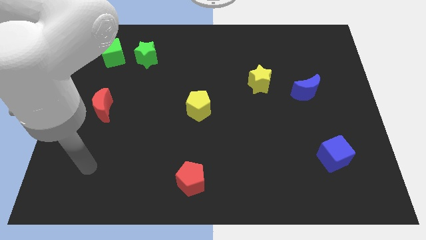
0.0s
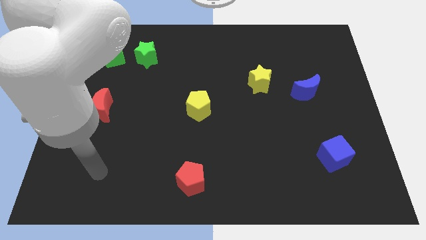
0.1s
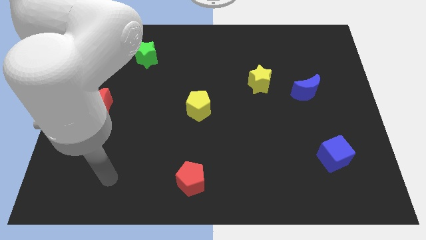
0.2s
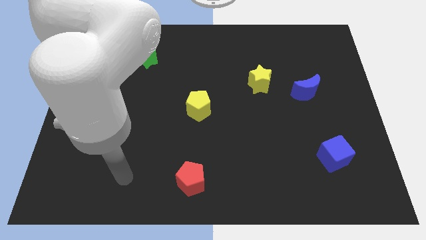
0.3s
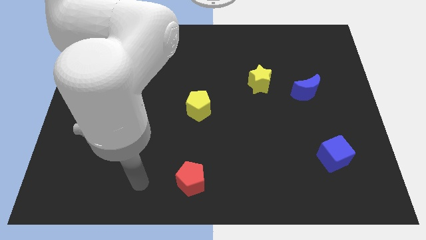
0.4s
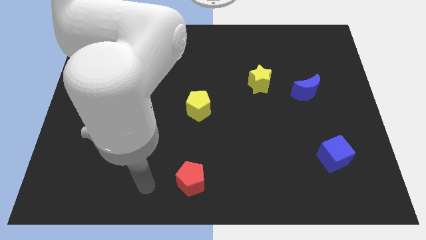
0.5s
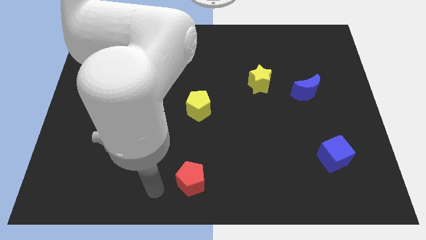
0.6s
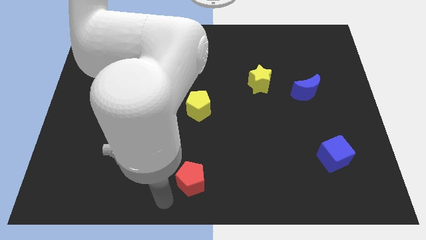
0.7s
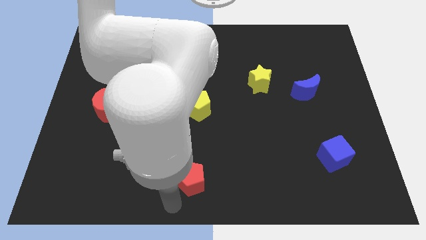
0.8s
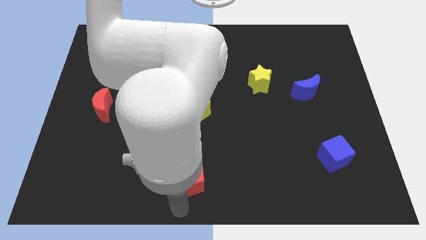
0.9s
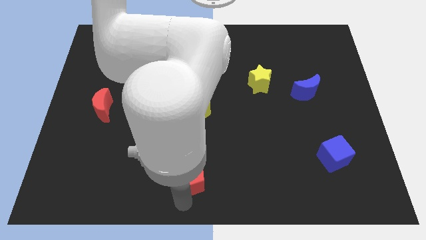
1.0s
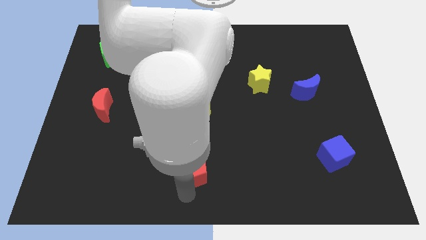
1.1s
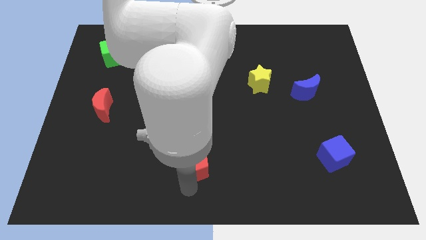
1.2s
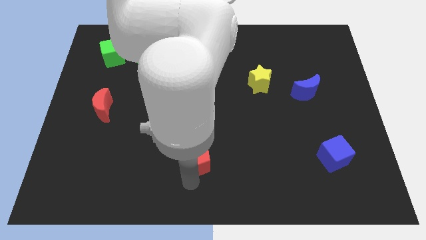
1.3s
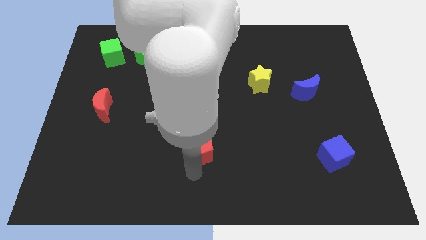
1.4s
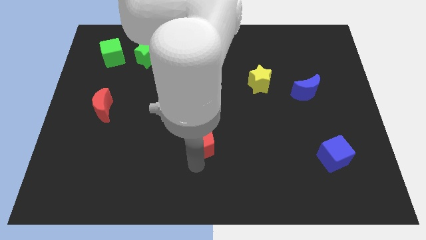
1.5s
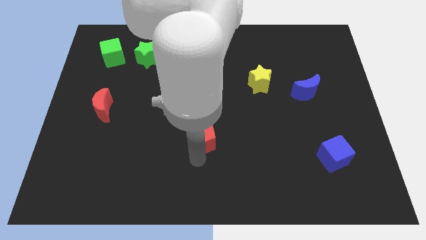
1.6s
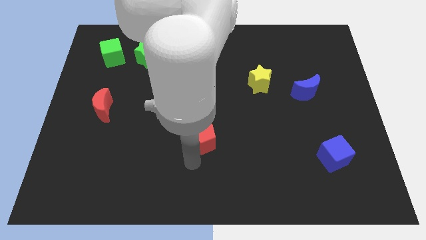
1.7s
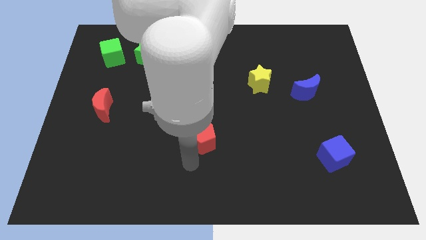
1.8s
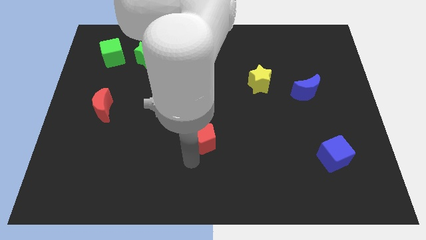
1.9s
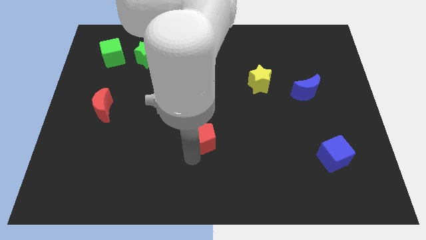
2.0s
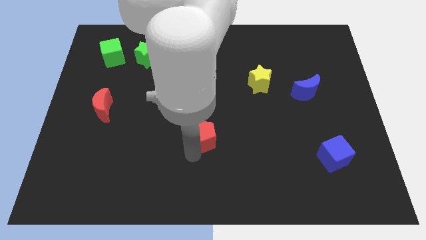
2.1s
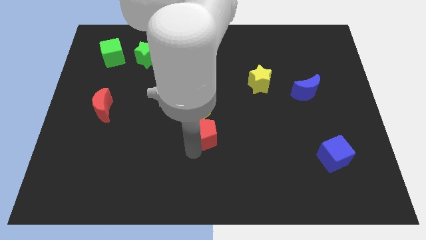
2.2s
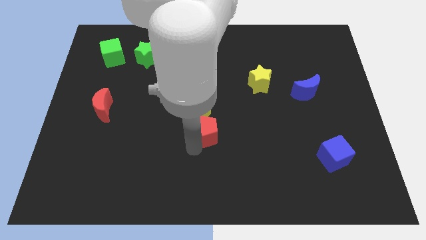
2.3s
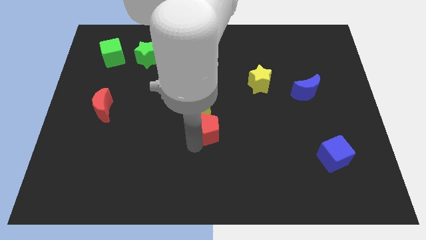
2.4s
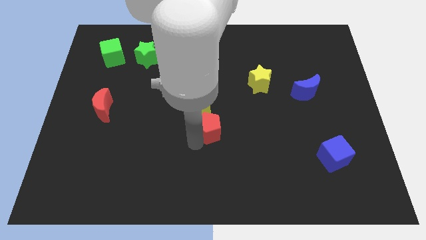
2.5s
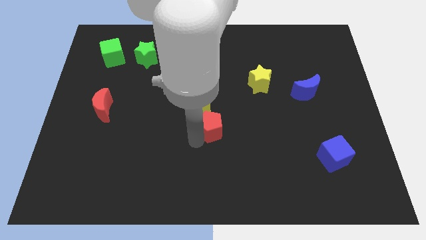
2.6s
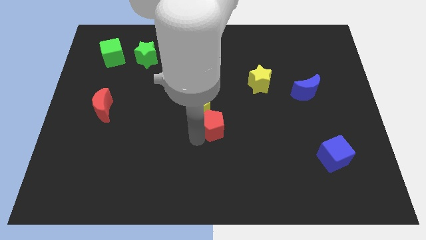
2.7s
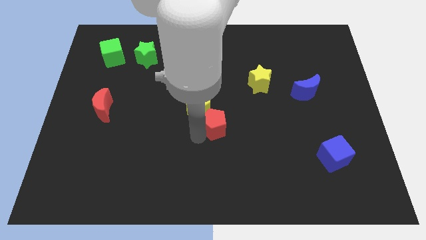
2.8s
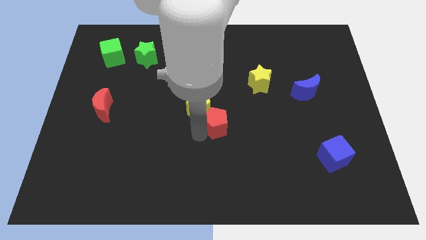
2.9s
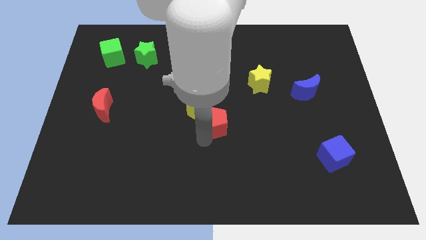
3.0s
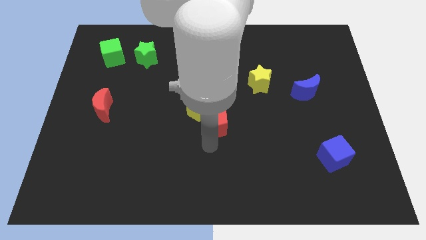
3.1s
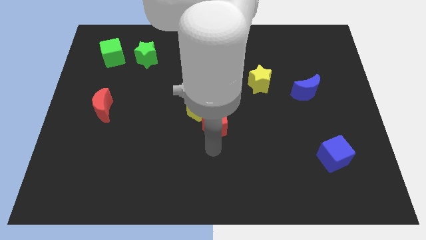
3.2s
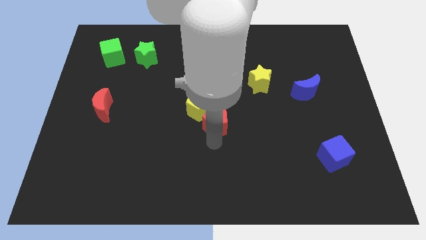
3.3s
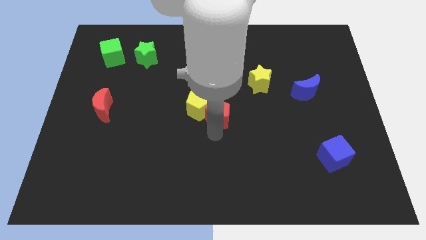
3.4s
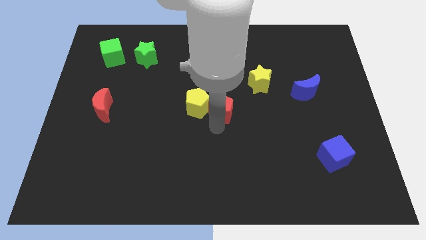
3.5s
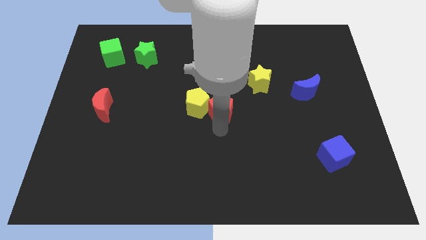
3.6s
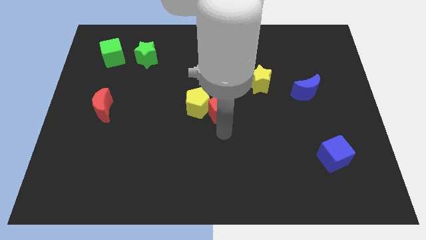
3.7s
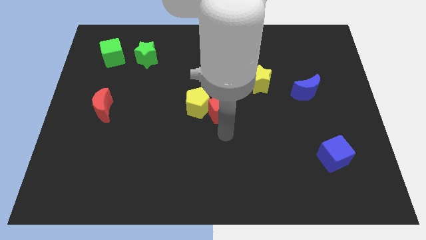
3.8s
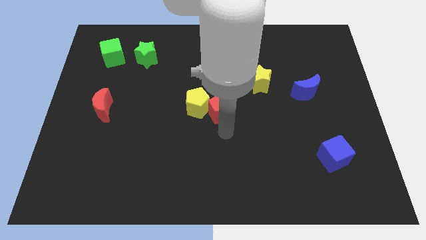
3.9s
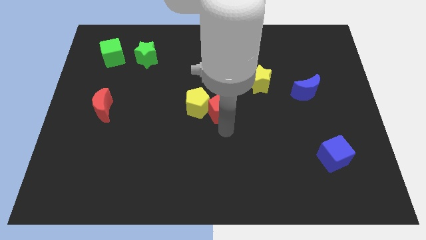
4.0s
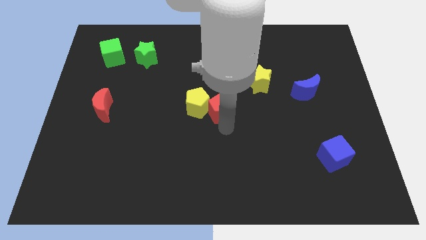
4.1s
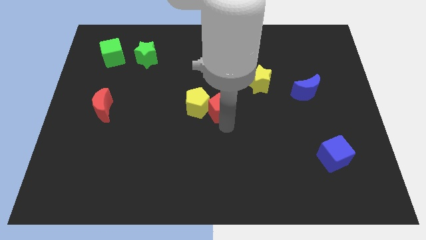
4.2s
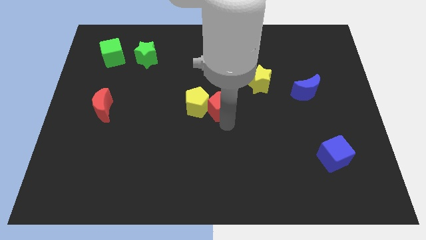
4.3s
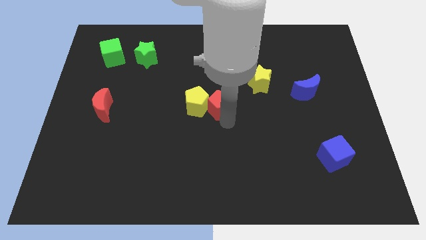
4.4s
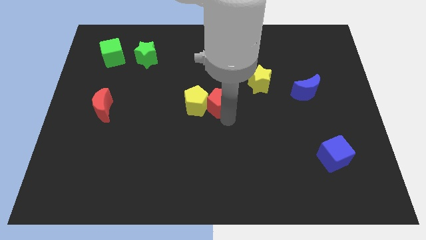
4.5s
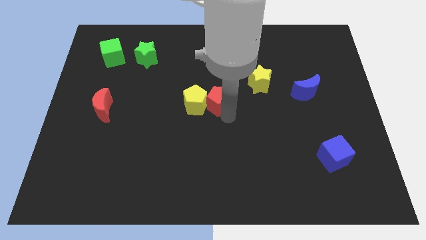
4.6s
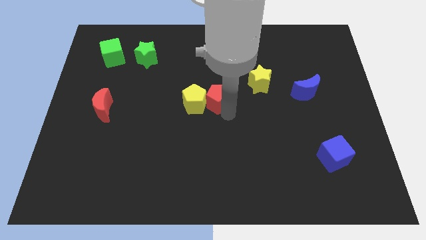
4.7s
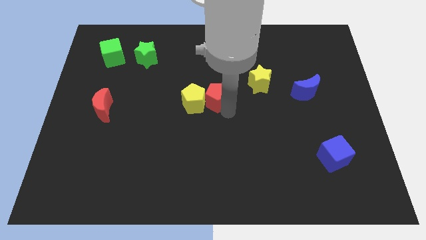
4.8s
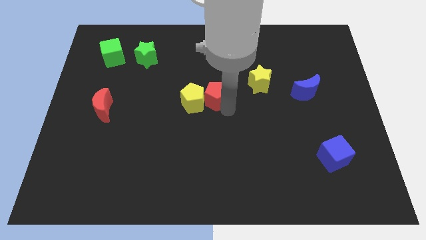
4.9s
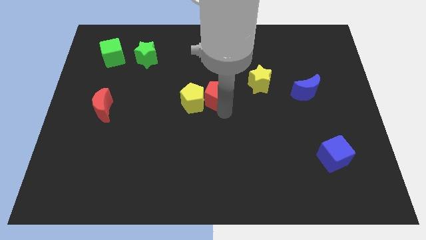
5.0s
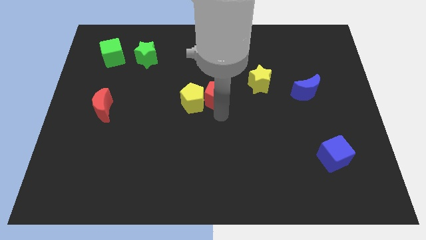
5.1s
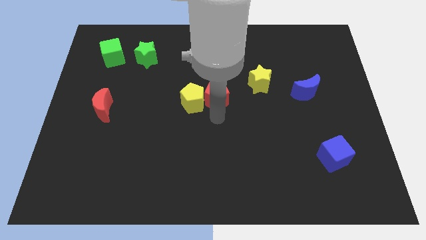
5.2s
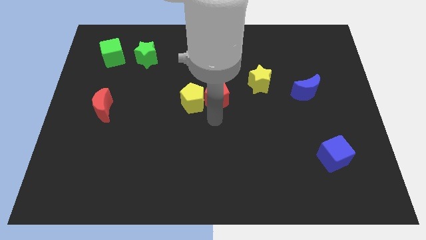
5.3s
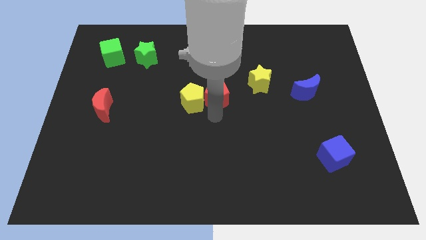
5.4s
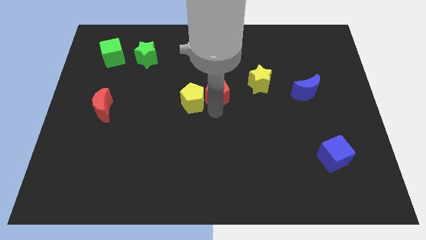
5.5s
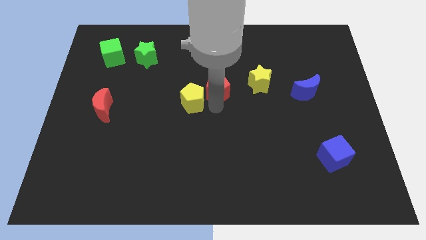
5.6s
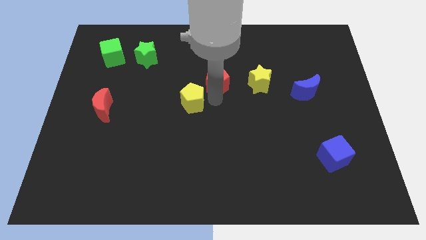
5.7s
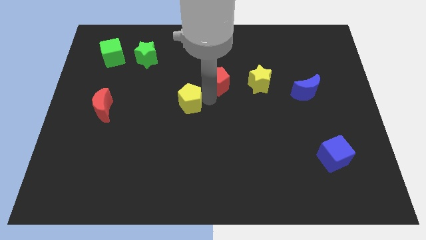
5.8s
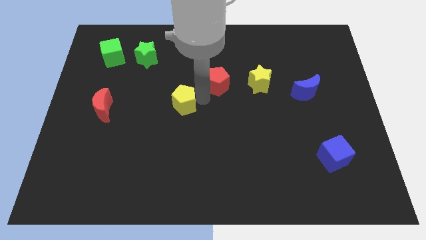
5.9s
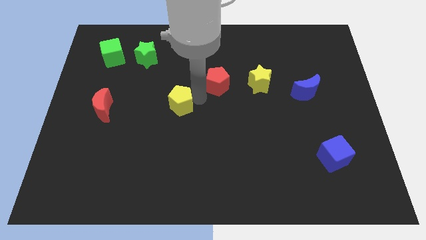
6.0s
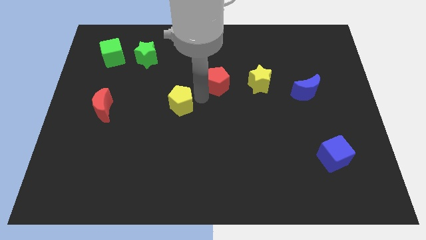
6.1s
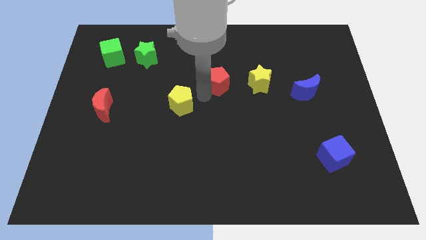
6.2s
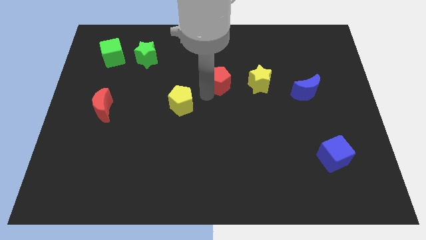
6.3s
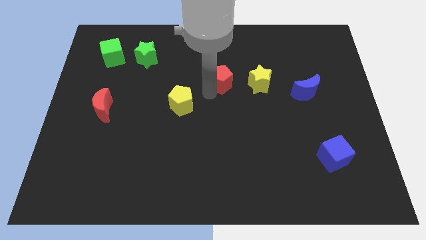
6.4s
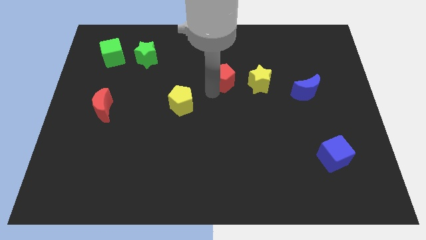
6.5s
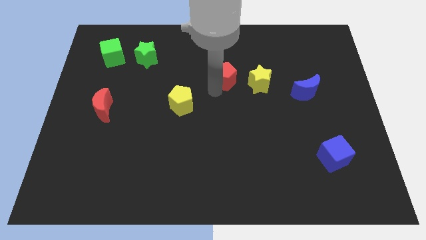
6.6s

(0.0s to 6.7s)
push the red pentagon diagonally up and to the left of the yellow star

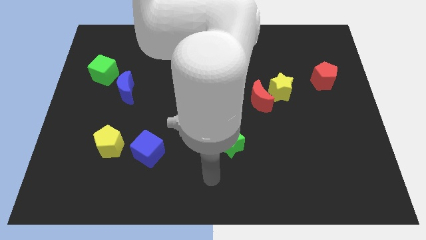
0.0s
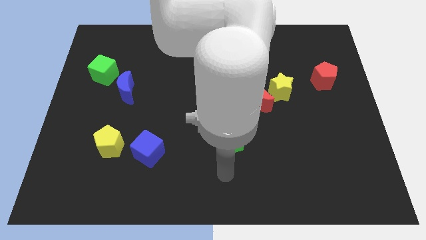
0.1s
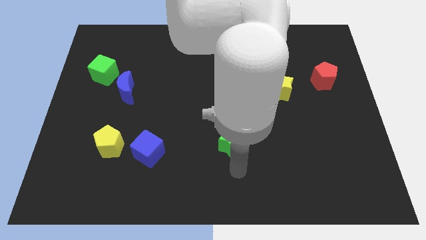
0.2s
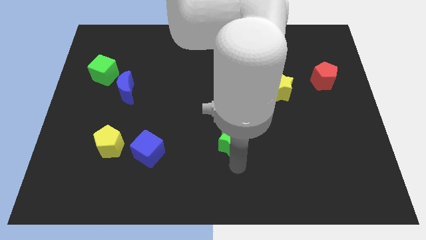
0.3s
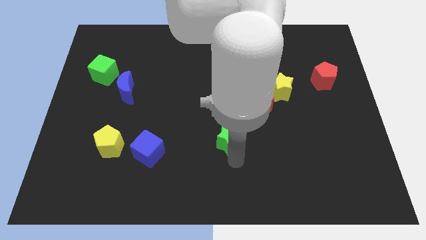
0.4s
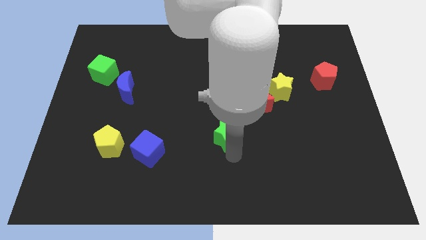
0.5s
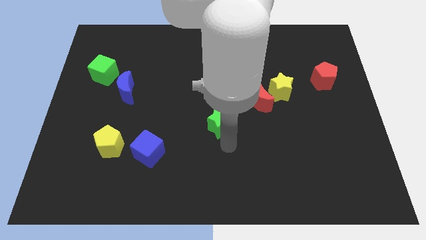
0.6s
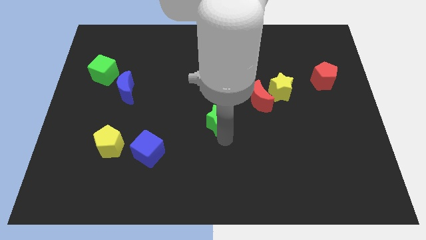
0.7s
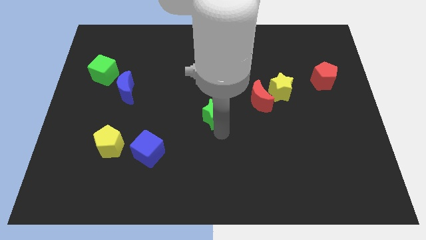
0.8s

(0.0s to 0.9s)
put the green star to the left of the red moon

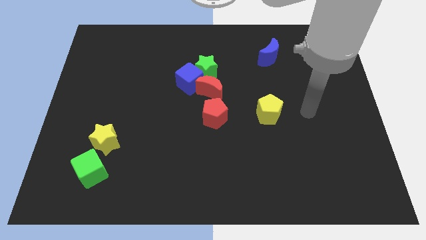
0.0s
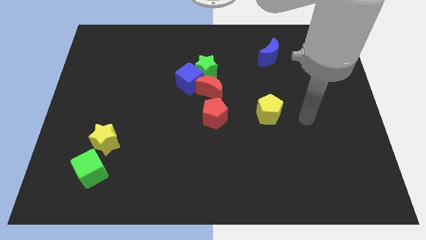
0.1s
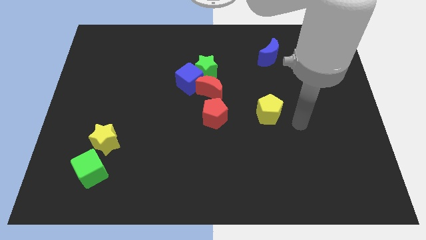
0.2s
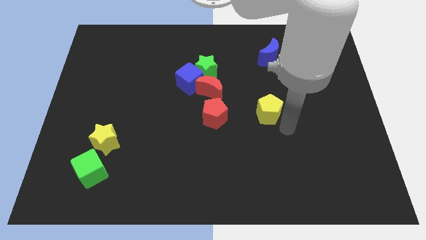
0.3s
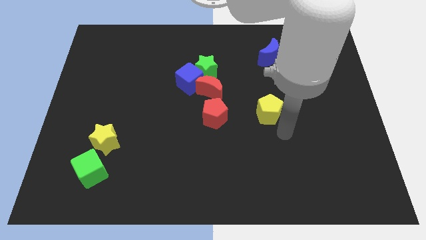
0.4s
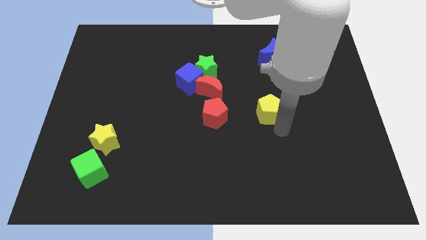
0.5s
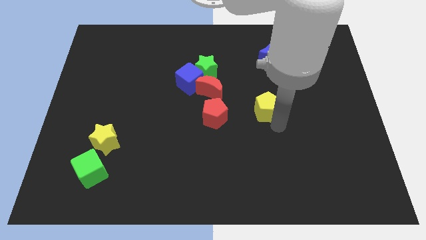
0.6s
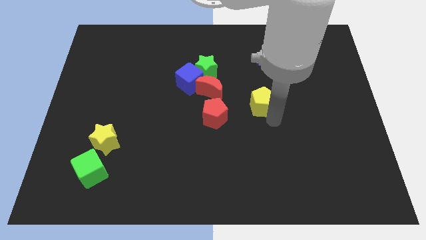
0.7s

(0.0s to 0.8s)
push the yellow pentagon right of the red moon
